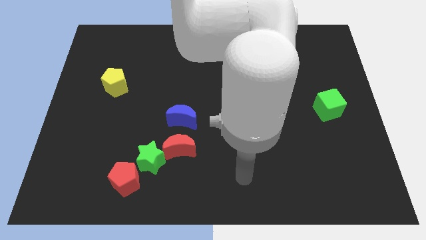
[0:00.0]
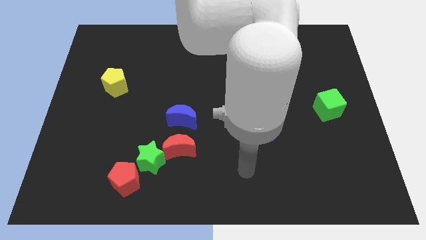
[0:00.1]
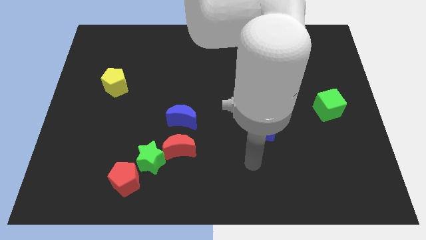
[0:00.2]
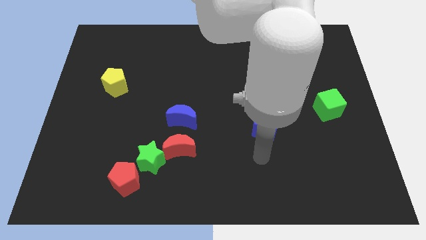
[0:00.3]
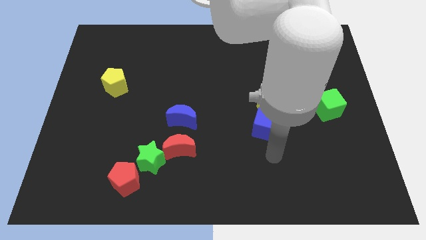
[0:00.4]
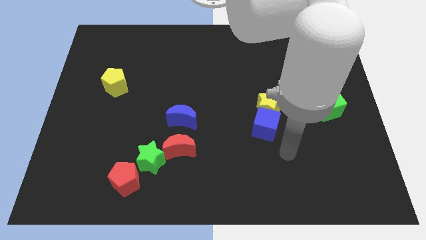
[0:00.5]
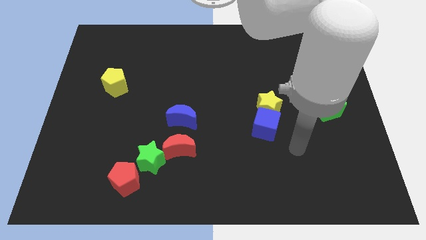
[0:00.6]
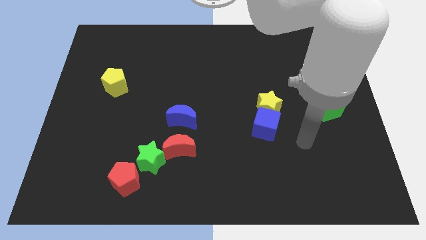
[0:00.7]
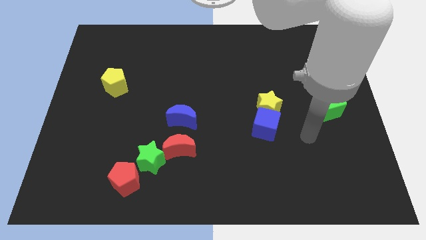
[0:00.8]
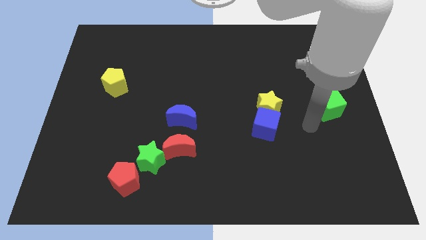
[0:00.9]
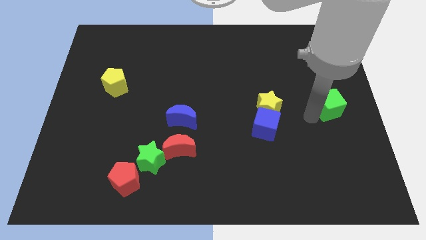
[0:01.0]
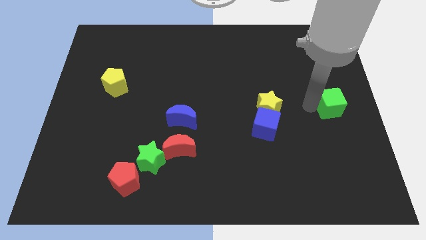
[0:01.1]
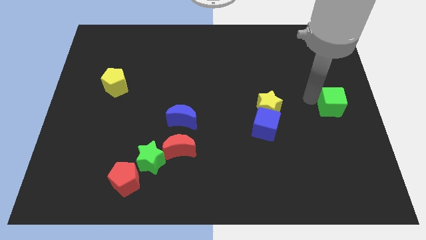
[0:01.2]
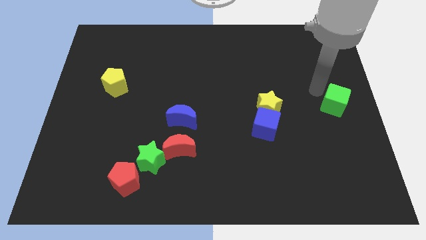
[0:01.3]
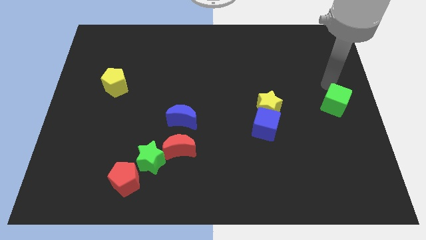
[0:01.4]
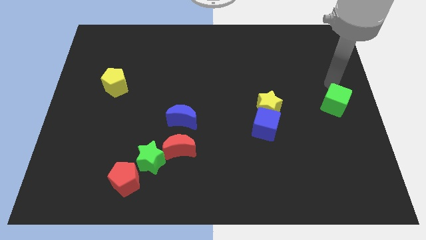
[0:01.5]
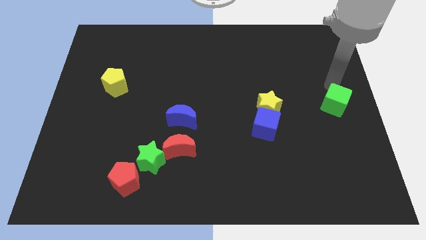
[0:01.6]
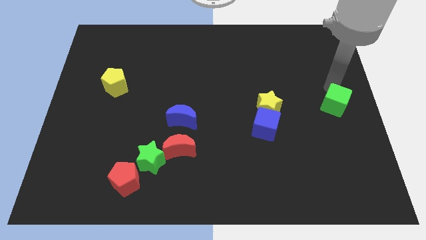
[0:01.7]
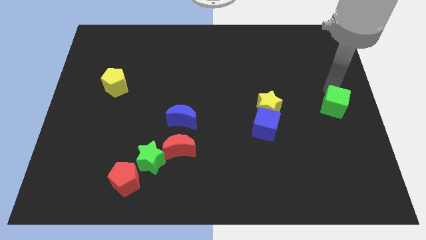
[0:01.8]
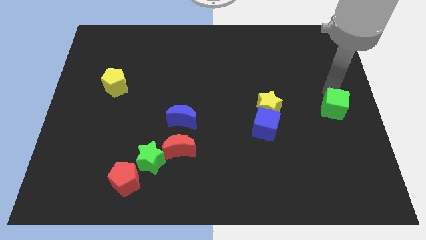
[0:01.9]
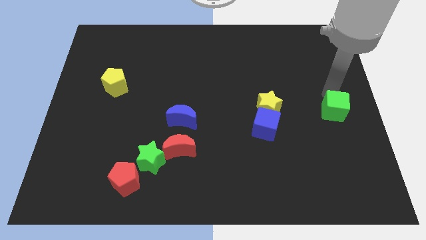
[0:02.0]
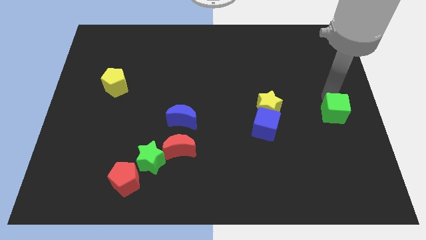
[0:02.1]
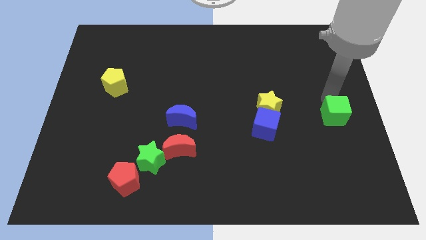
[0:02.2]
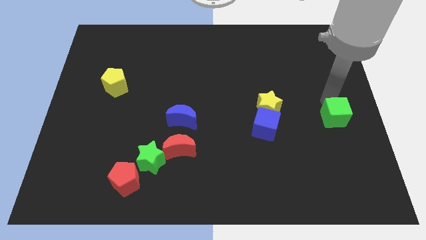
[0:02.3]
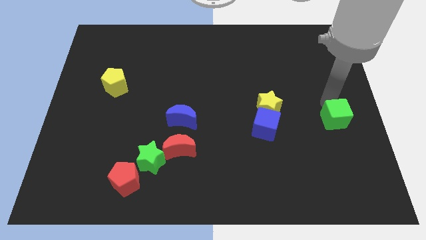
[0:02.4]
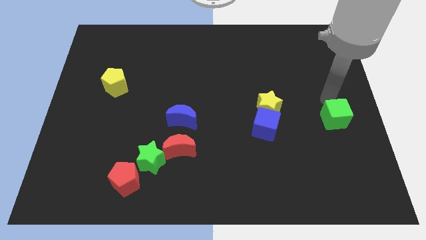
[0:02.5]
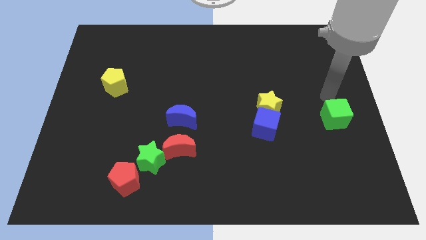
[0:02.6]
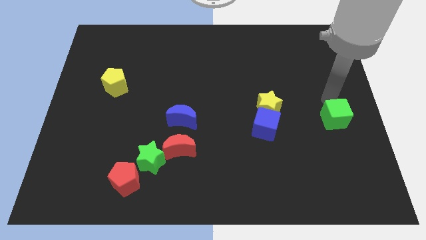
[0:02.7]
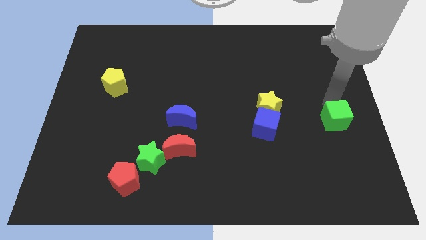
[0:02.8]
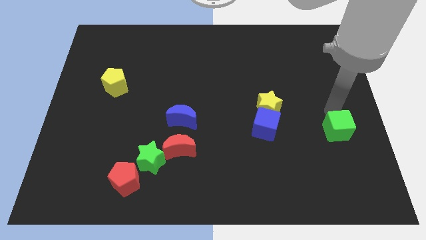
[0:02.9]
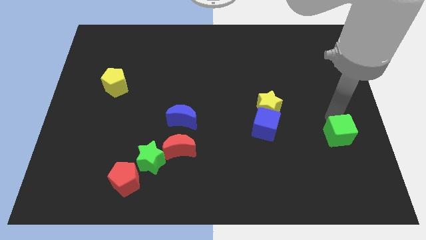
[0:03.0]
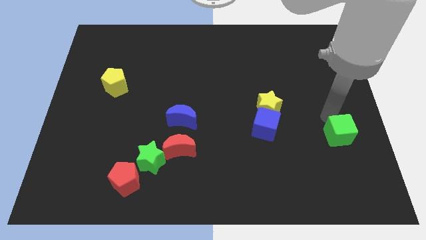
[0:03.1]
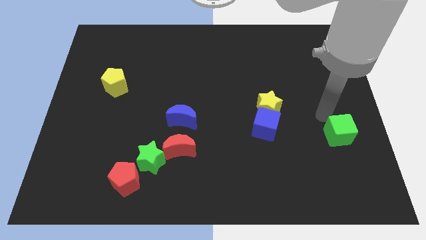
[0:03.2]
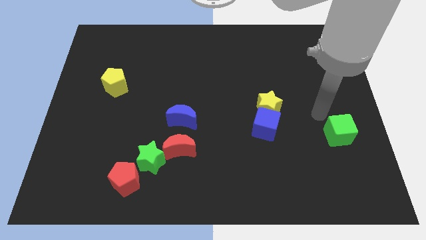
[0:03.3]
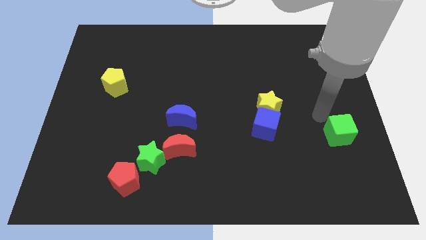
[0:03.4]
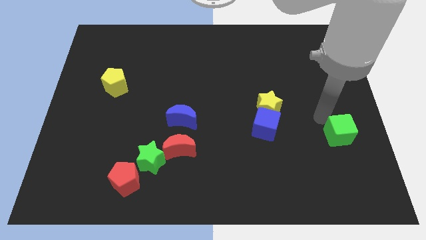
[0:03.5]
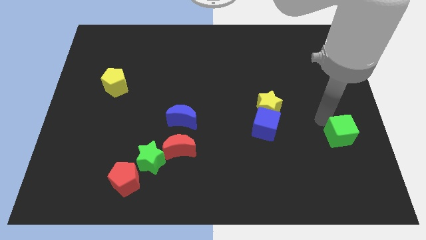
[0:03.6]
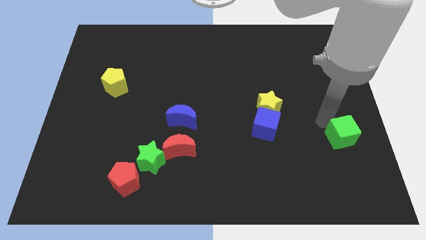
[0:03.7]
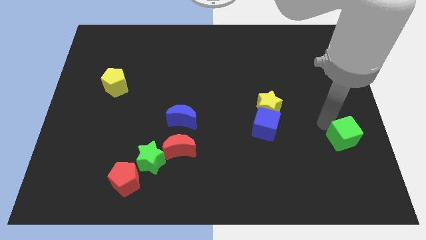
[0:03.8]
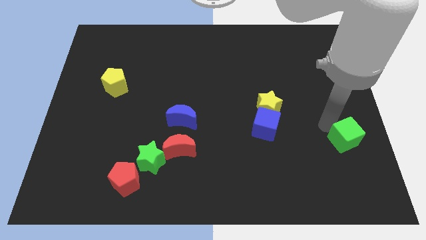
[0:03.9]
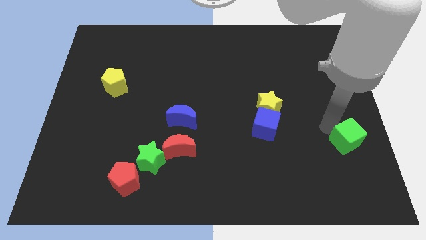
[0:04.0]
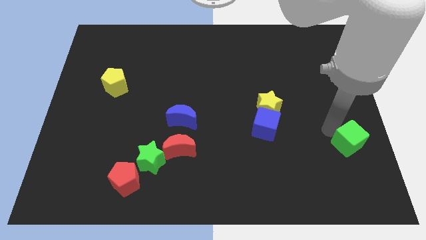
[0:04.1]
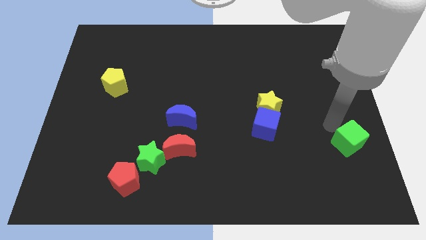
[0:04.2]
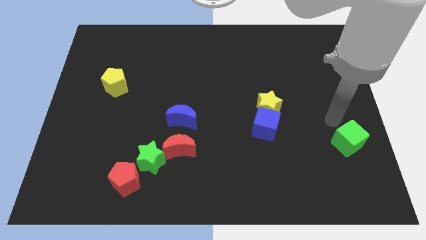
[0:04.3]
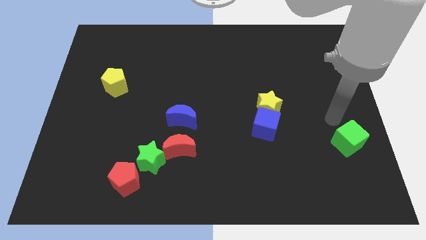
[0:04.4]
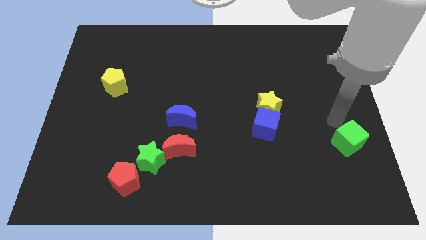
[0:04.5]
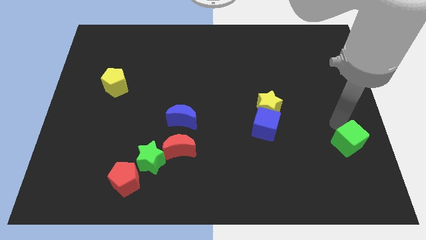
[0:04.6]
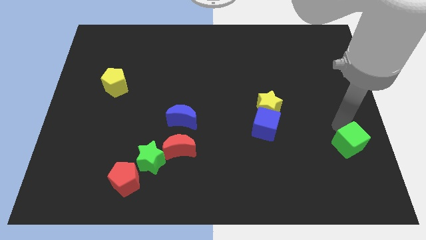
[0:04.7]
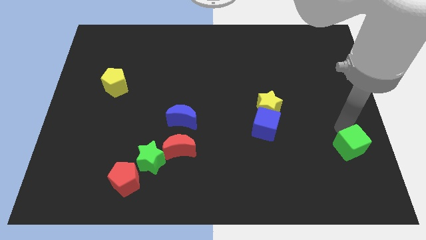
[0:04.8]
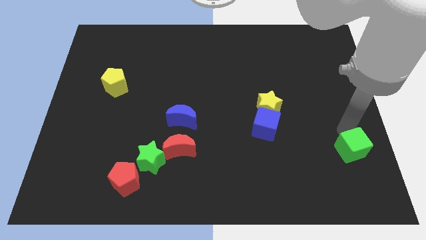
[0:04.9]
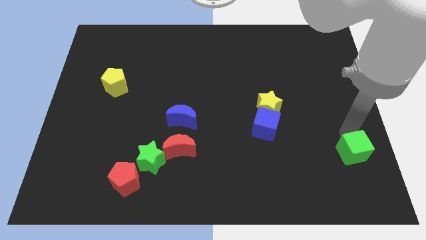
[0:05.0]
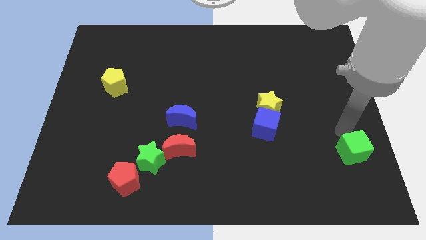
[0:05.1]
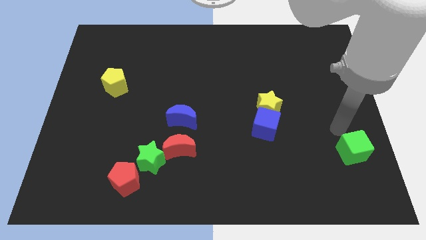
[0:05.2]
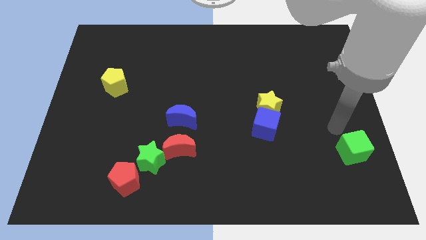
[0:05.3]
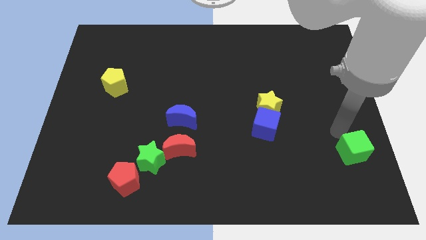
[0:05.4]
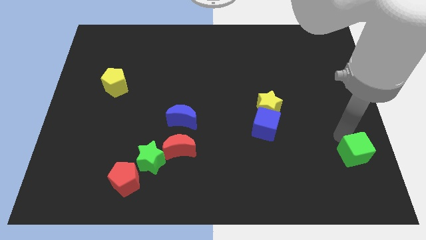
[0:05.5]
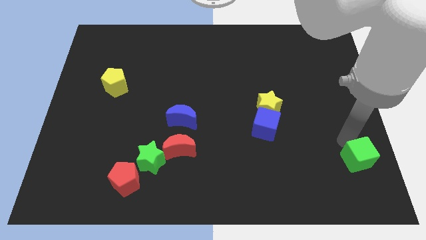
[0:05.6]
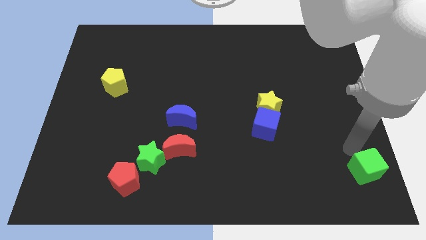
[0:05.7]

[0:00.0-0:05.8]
put the green cube to the lower right corner
